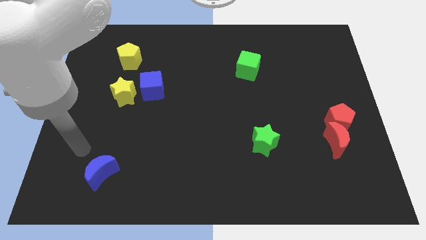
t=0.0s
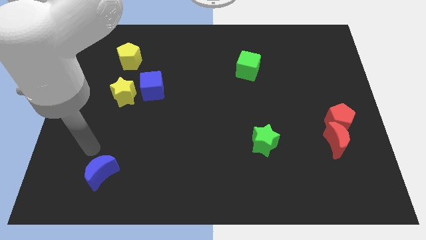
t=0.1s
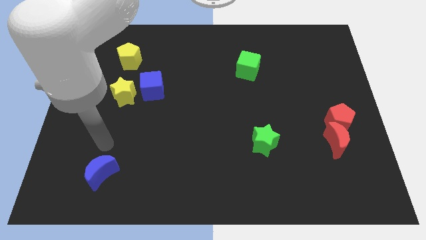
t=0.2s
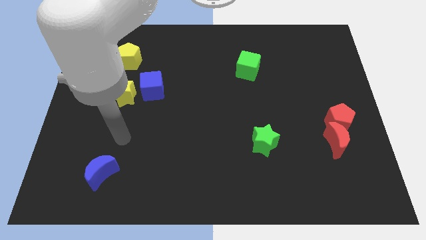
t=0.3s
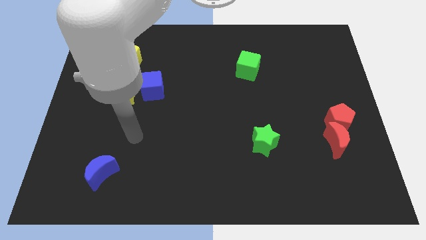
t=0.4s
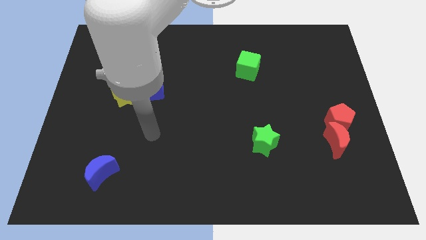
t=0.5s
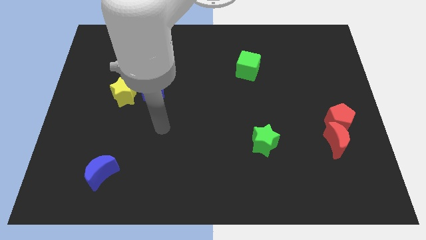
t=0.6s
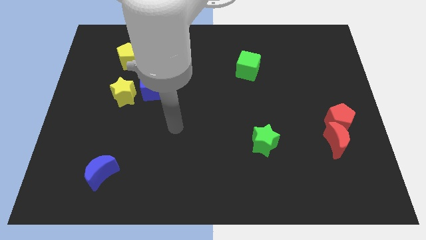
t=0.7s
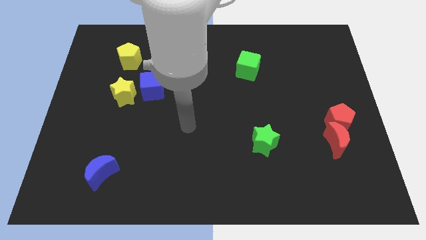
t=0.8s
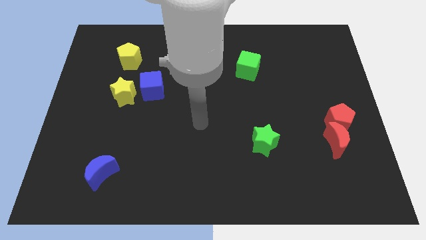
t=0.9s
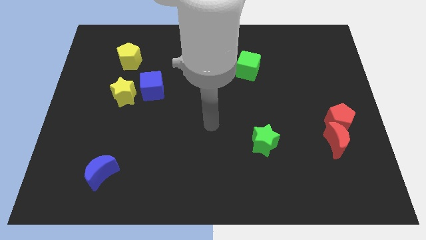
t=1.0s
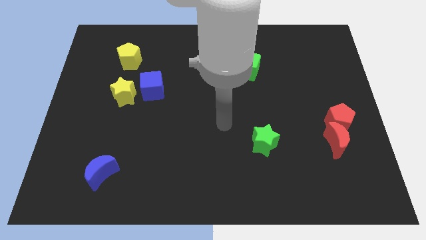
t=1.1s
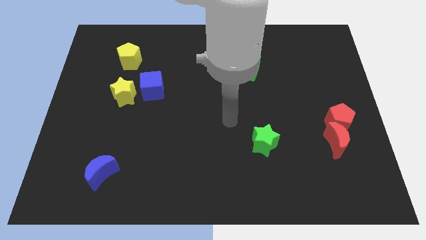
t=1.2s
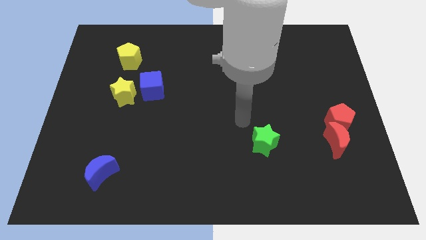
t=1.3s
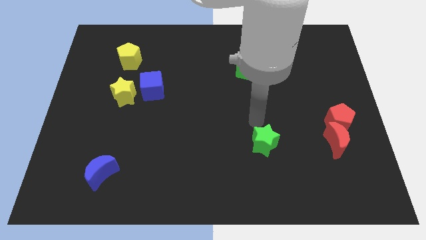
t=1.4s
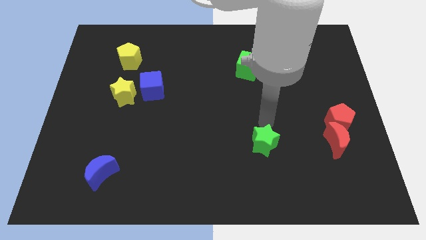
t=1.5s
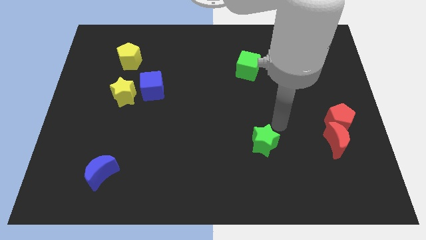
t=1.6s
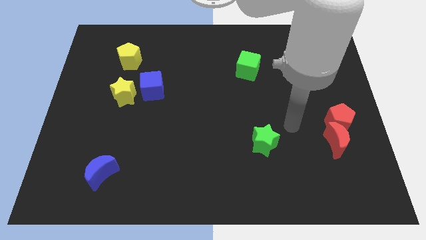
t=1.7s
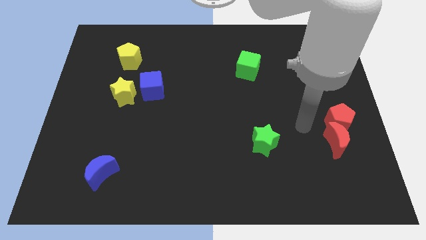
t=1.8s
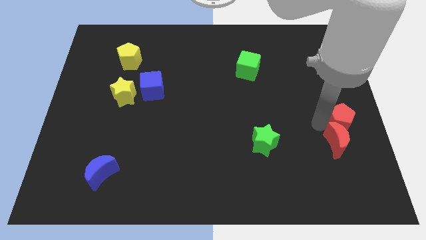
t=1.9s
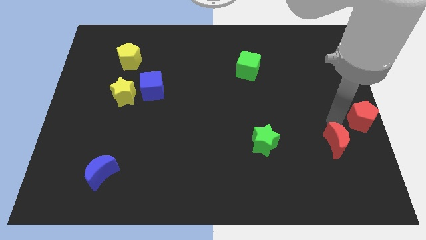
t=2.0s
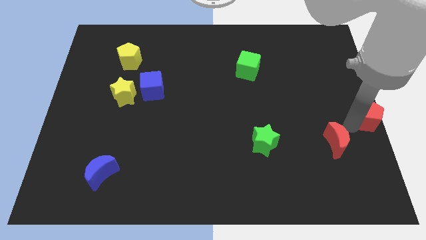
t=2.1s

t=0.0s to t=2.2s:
move the red moon away from the red pentagon

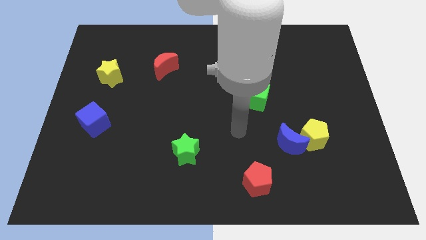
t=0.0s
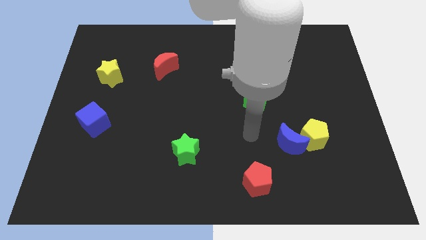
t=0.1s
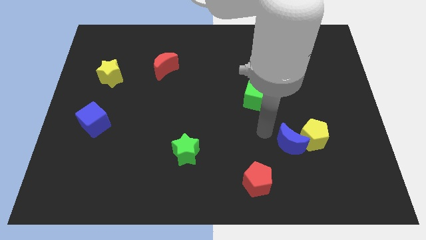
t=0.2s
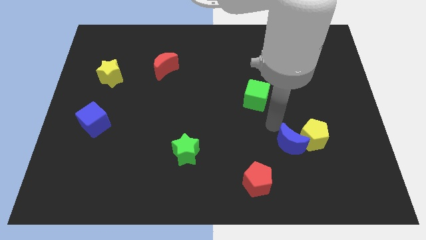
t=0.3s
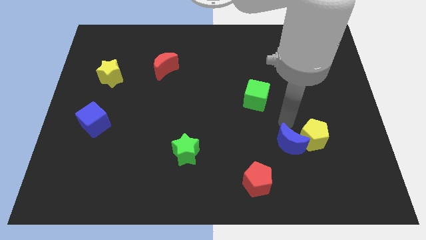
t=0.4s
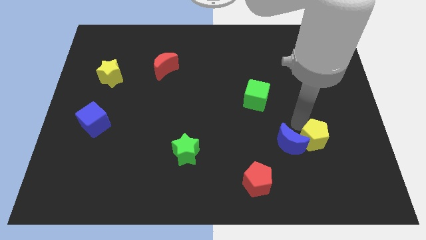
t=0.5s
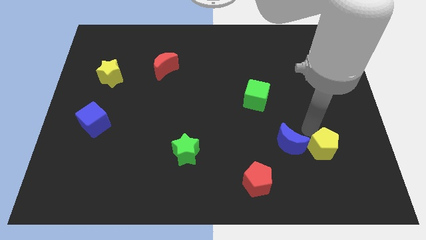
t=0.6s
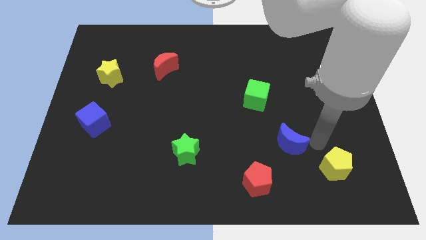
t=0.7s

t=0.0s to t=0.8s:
move the blue moon away from the yellow pentagon

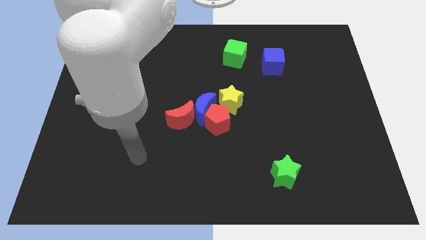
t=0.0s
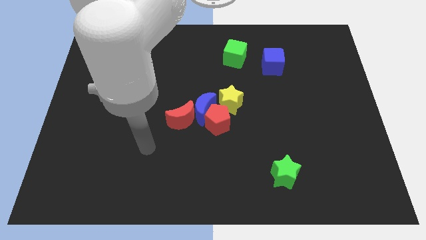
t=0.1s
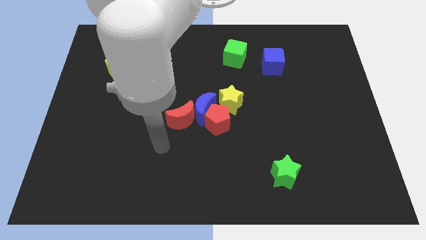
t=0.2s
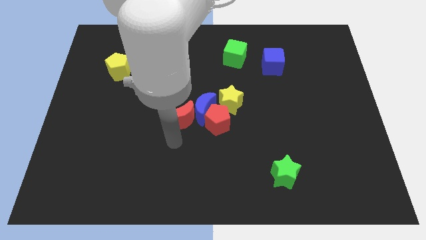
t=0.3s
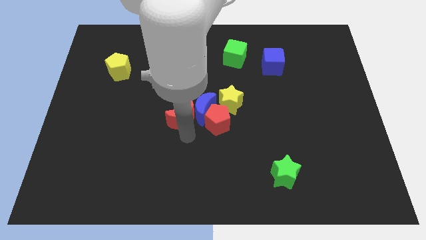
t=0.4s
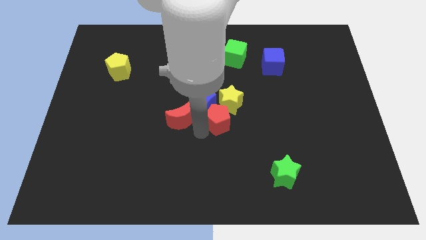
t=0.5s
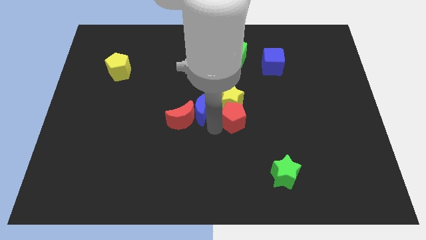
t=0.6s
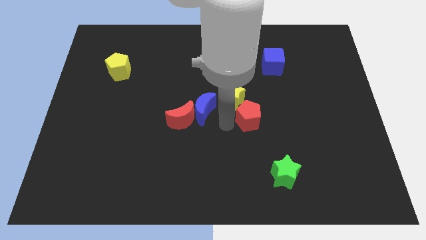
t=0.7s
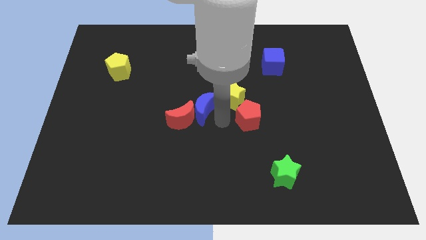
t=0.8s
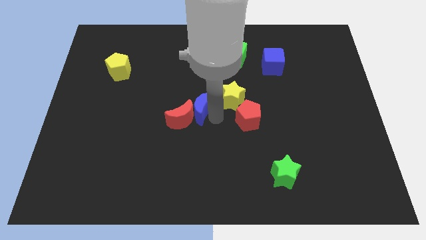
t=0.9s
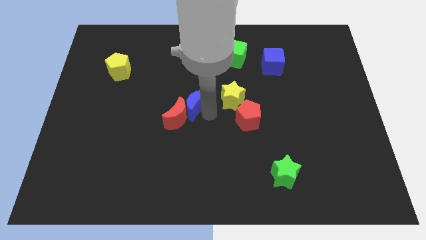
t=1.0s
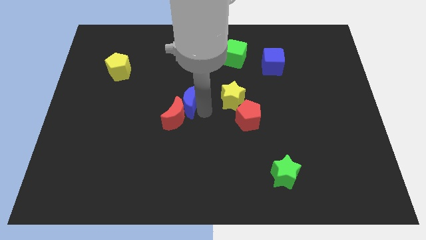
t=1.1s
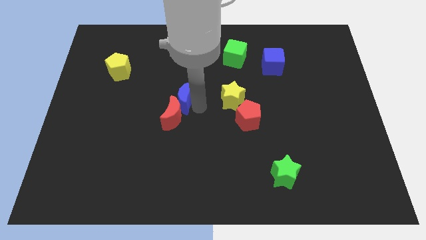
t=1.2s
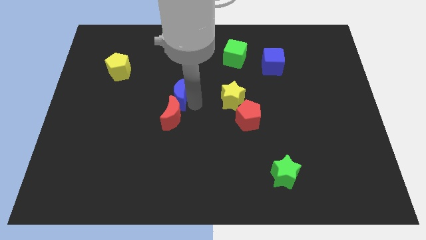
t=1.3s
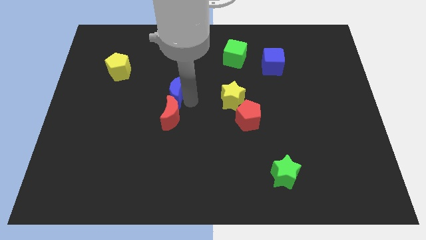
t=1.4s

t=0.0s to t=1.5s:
pull the blue moon apart from the group

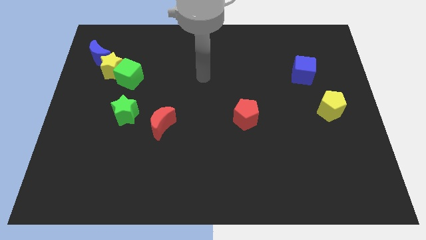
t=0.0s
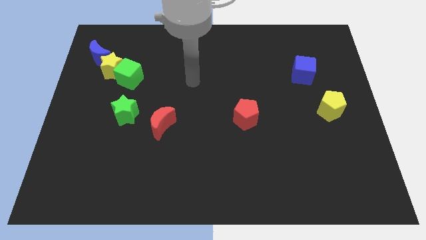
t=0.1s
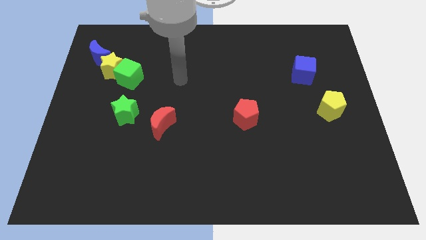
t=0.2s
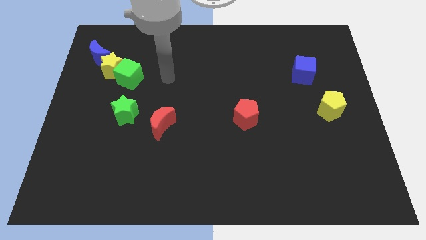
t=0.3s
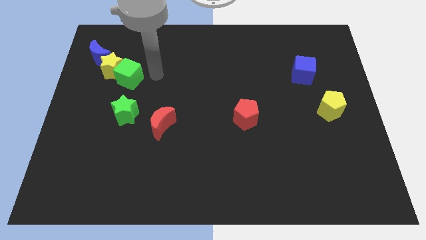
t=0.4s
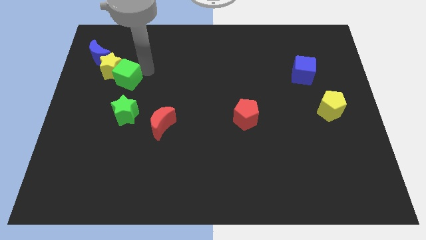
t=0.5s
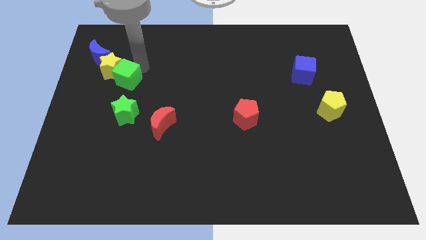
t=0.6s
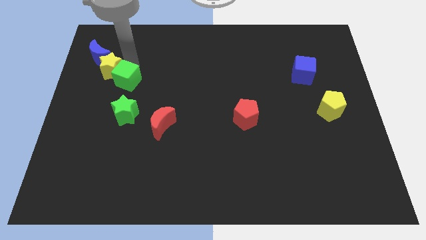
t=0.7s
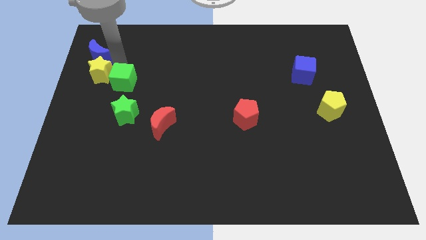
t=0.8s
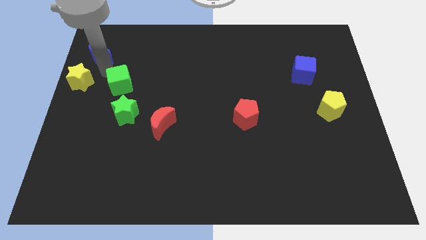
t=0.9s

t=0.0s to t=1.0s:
separate the green cube from the yellow star

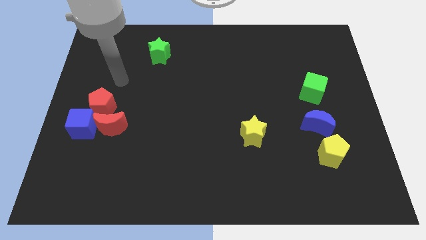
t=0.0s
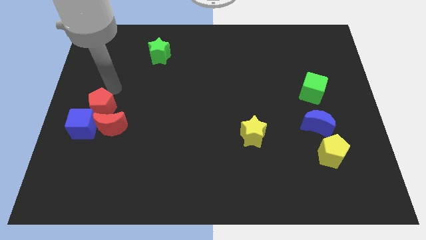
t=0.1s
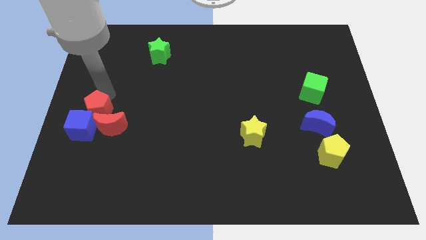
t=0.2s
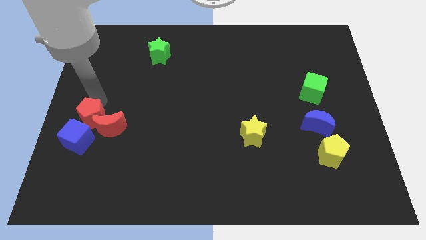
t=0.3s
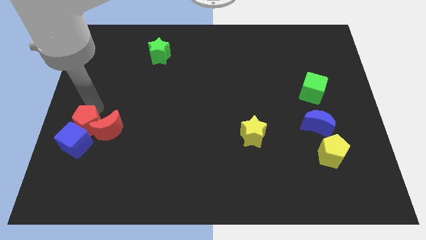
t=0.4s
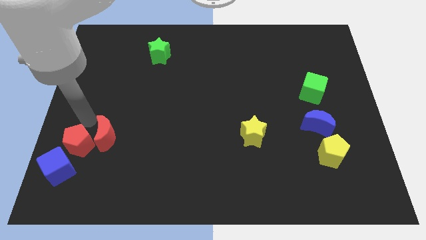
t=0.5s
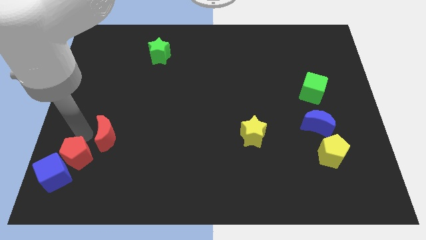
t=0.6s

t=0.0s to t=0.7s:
separate the red moon from the blue cube and red pentagon

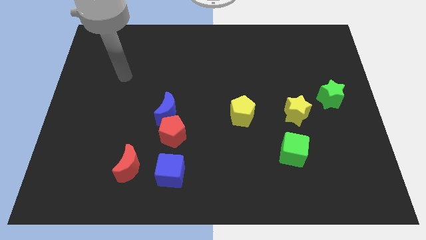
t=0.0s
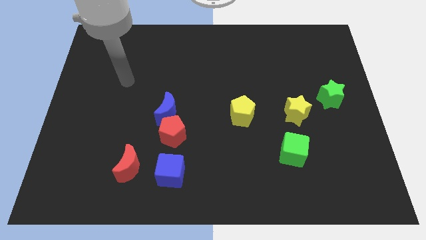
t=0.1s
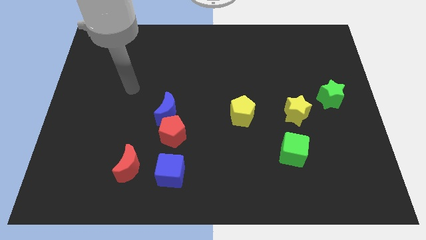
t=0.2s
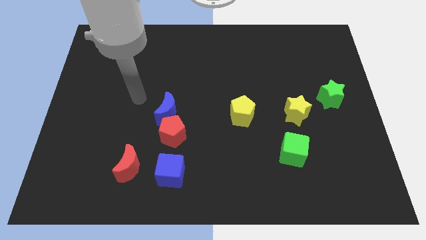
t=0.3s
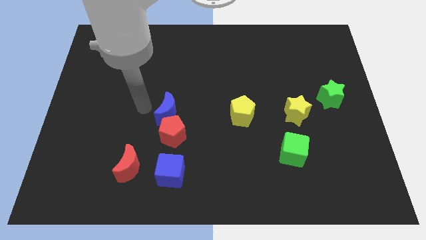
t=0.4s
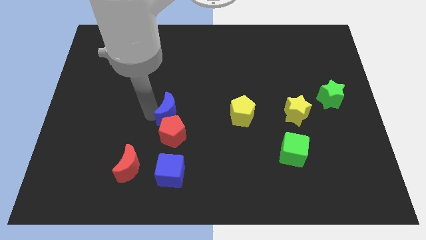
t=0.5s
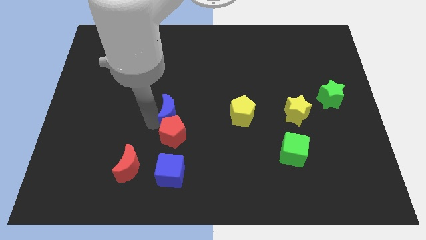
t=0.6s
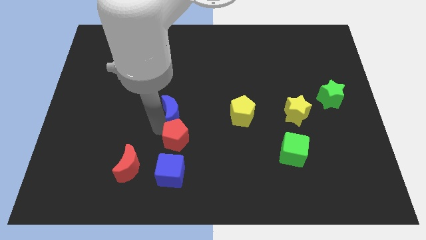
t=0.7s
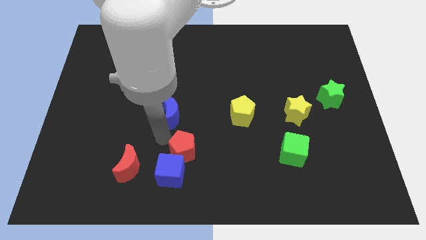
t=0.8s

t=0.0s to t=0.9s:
move the blue moon away from the red pentagon

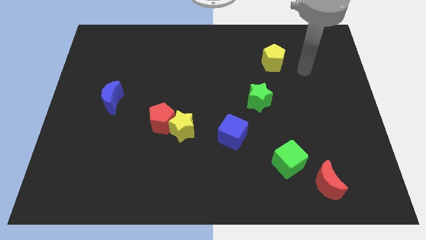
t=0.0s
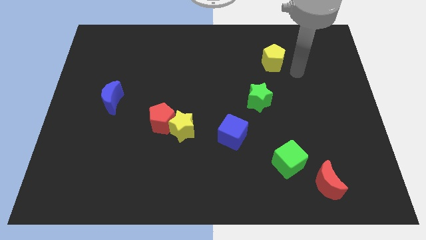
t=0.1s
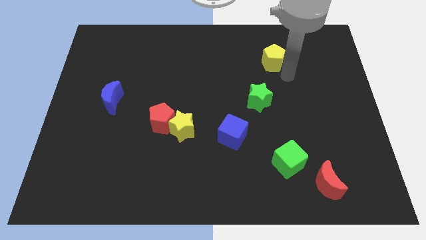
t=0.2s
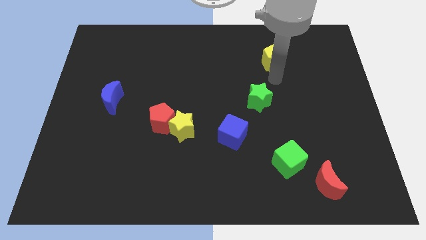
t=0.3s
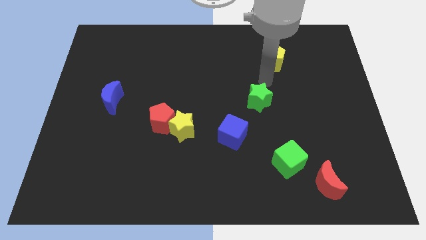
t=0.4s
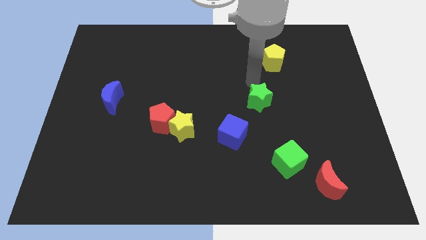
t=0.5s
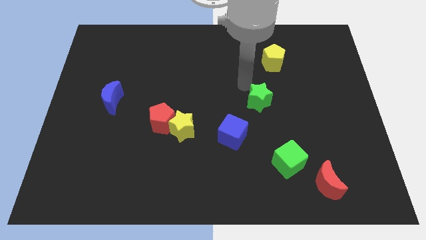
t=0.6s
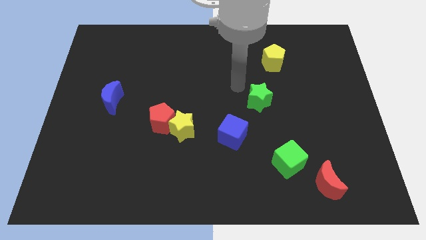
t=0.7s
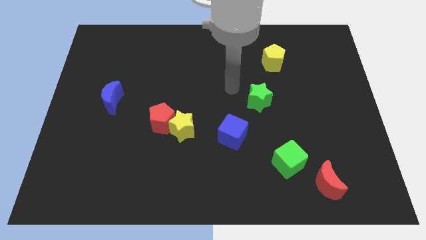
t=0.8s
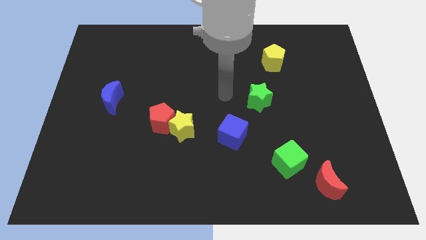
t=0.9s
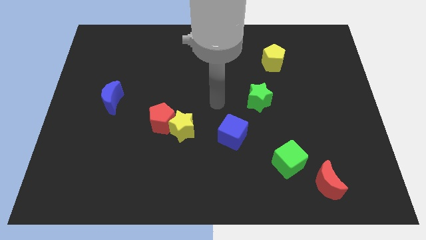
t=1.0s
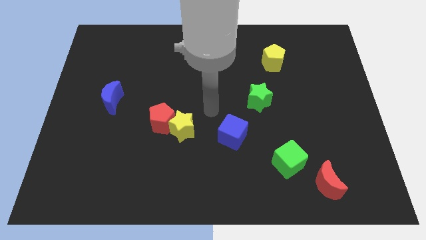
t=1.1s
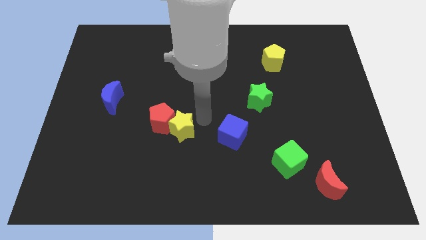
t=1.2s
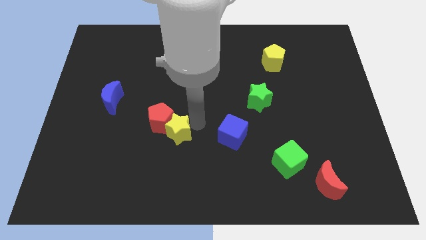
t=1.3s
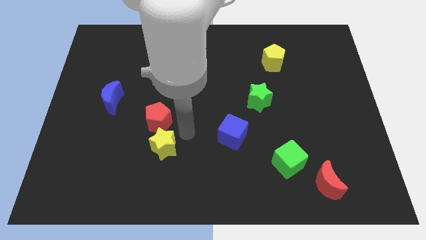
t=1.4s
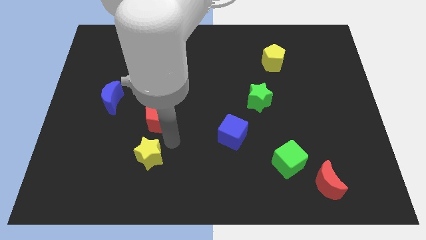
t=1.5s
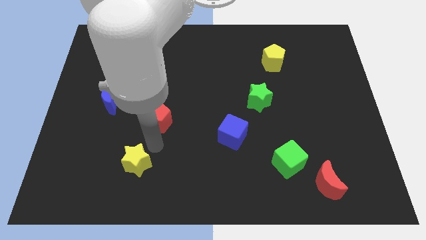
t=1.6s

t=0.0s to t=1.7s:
separate the red pentagon from the yellow star

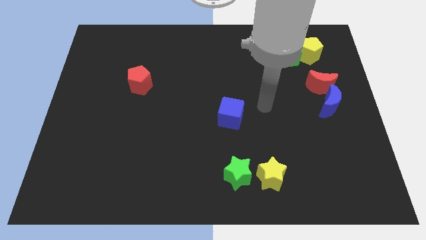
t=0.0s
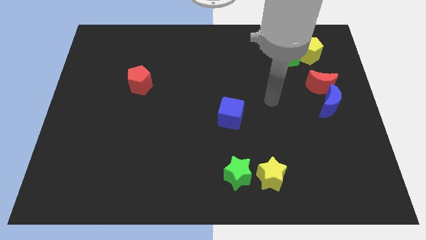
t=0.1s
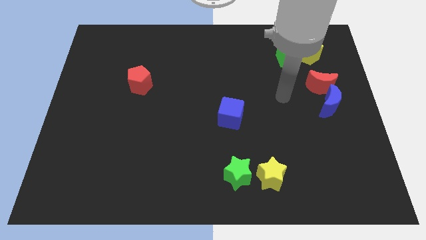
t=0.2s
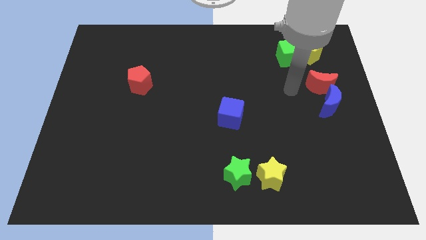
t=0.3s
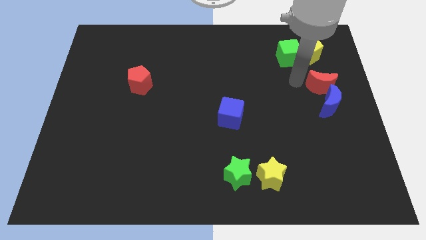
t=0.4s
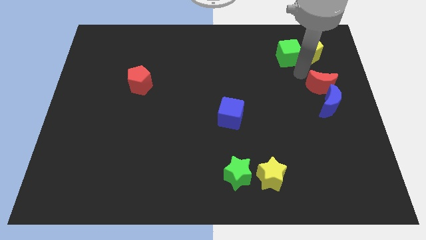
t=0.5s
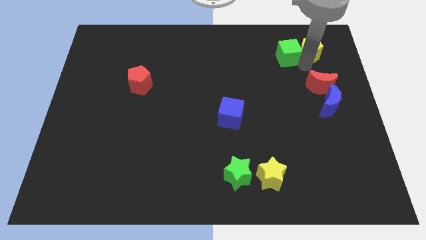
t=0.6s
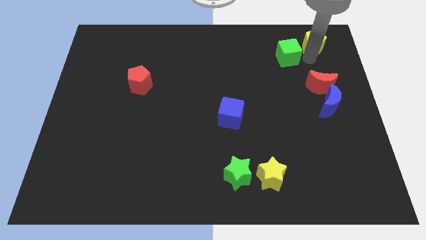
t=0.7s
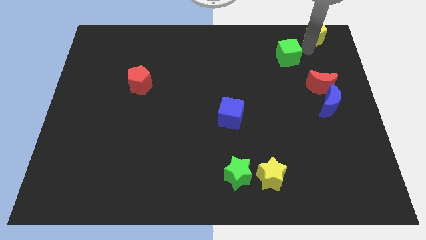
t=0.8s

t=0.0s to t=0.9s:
move the green cube away from the yellow pentagon
